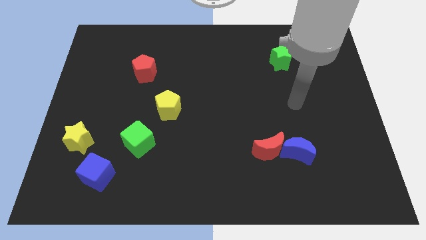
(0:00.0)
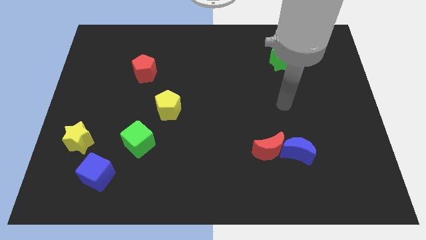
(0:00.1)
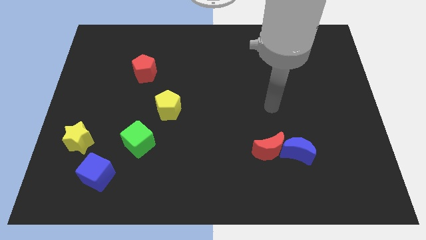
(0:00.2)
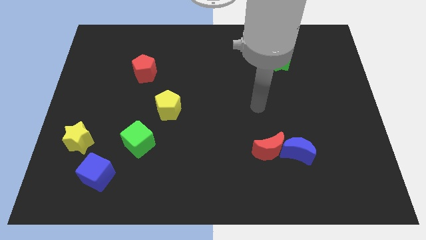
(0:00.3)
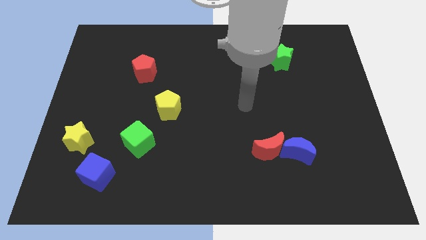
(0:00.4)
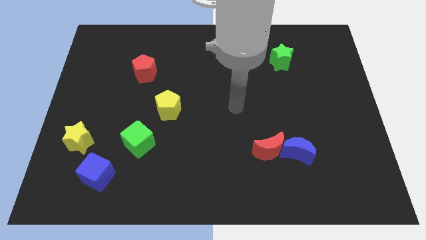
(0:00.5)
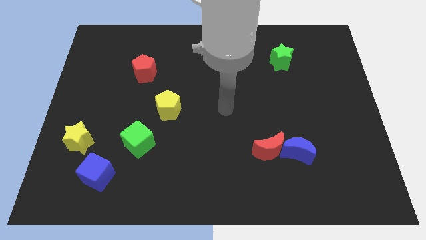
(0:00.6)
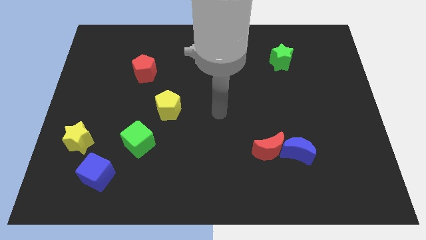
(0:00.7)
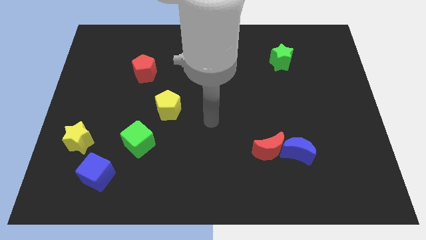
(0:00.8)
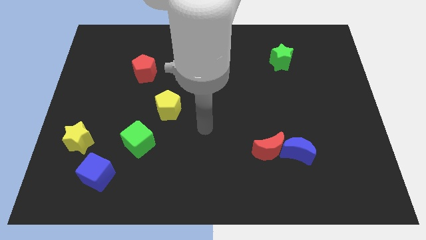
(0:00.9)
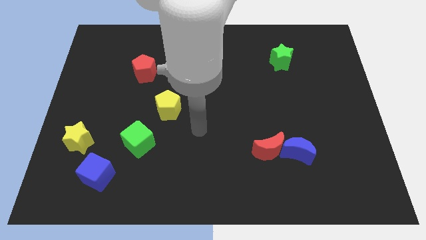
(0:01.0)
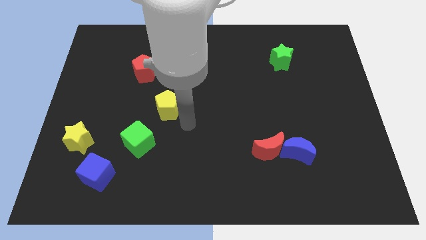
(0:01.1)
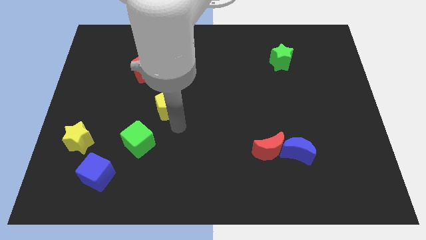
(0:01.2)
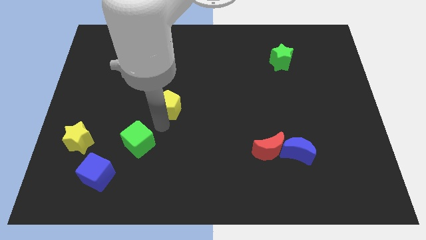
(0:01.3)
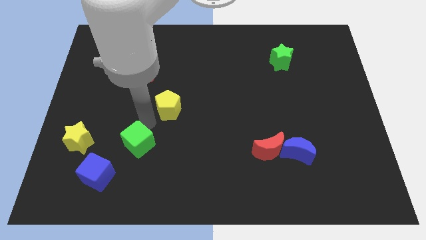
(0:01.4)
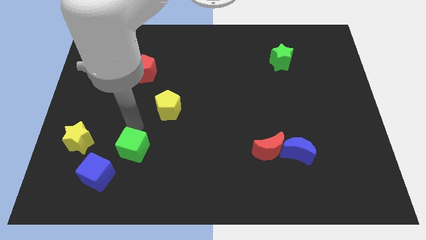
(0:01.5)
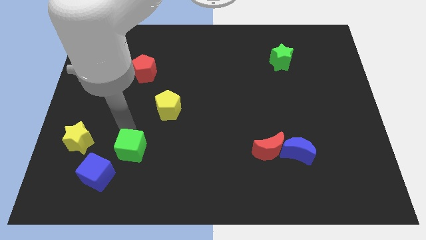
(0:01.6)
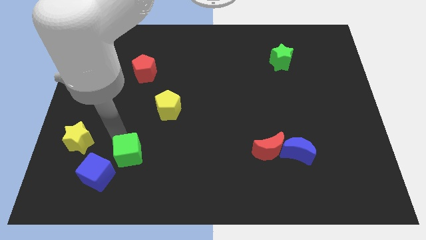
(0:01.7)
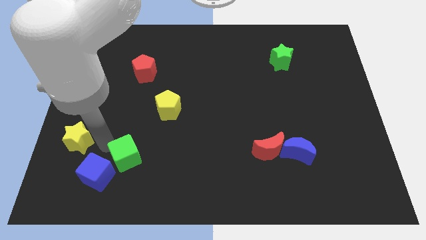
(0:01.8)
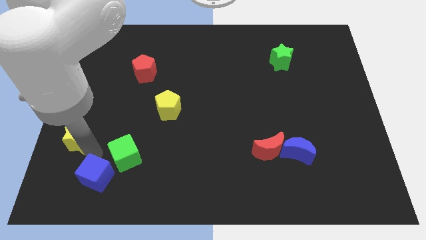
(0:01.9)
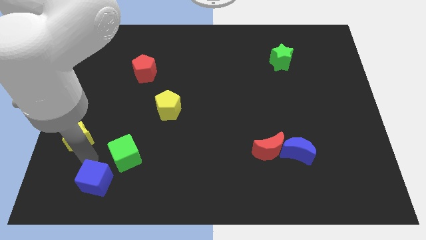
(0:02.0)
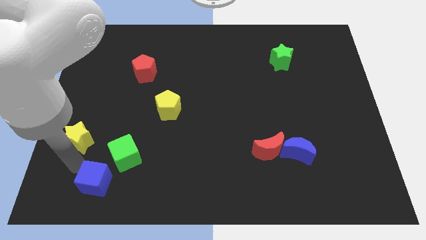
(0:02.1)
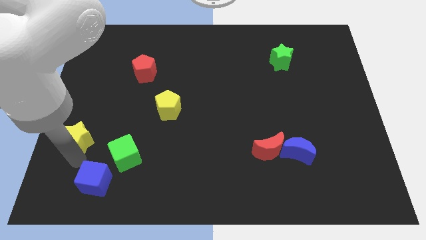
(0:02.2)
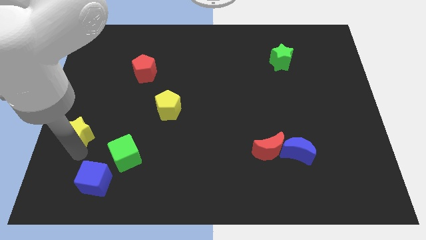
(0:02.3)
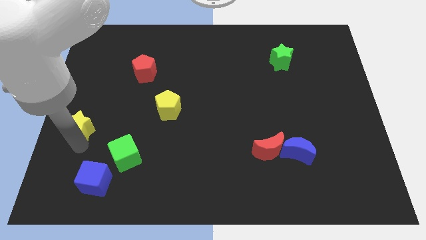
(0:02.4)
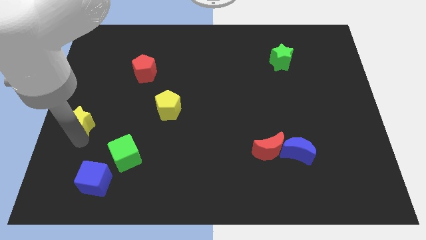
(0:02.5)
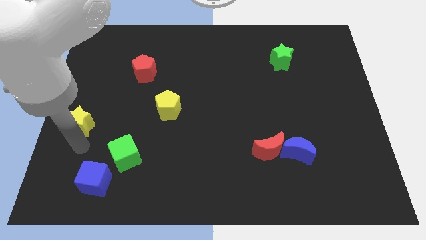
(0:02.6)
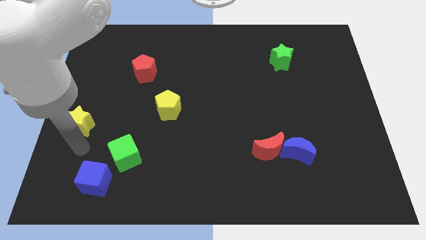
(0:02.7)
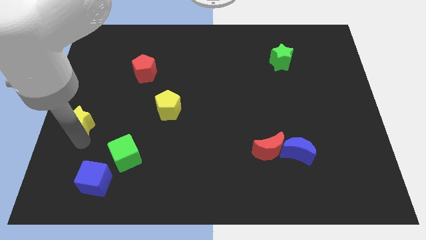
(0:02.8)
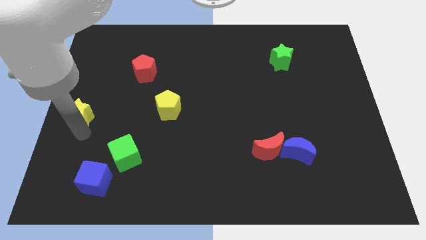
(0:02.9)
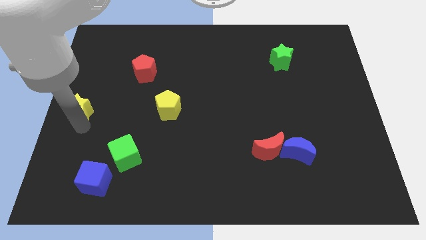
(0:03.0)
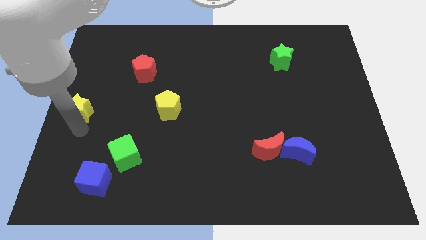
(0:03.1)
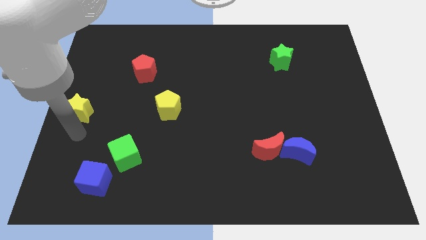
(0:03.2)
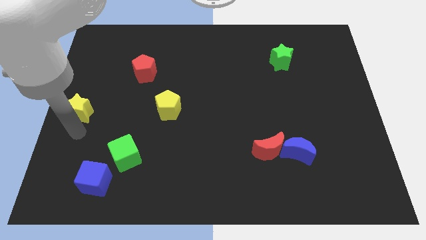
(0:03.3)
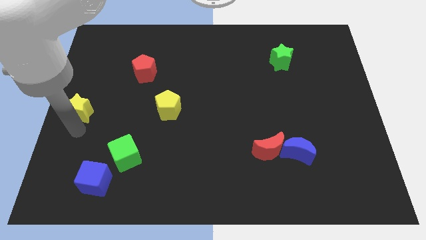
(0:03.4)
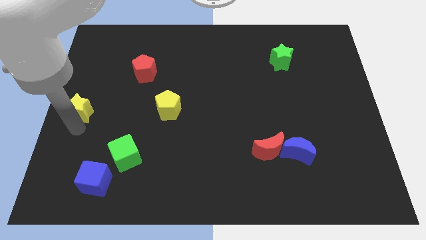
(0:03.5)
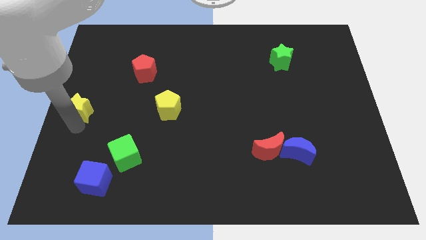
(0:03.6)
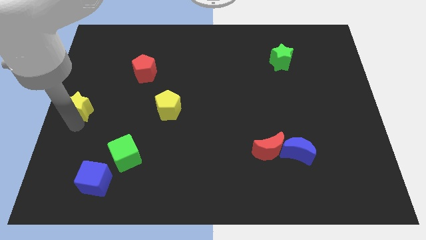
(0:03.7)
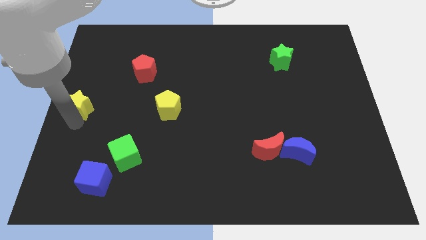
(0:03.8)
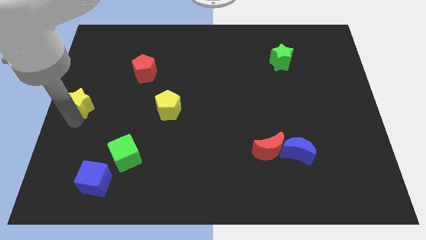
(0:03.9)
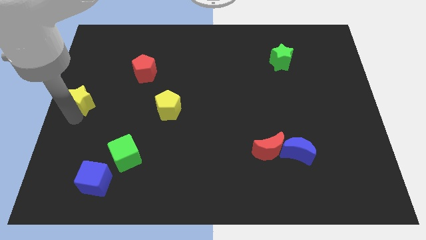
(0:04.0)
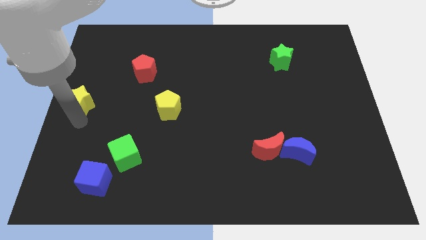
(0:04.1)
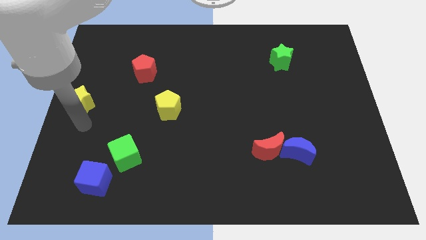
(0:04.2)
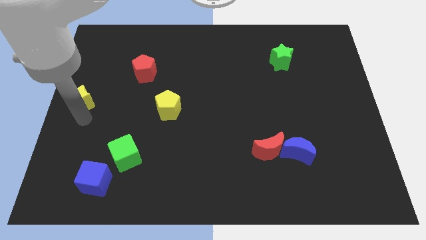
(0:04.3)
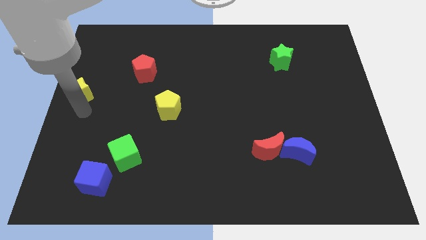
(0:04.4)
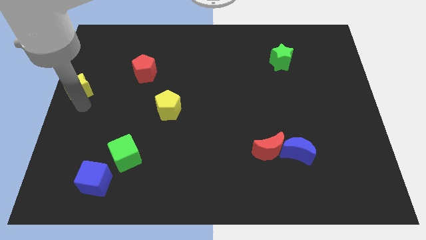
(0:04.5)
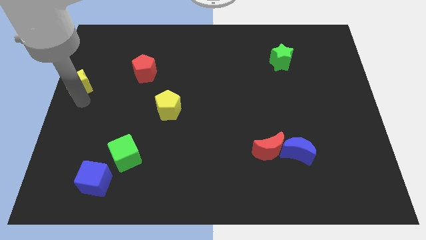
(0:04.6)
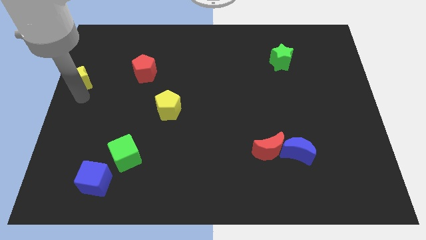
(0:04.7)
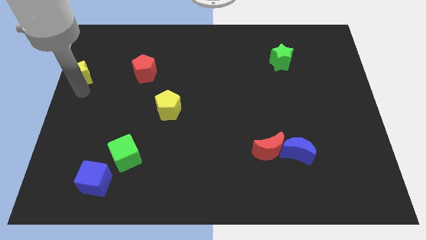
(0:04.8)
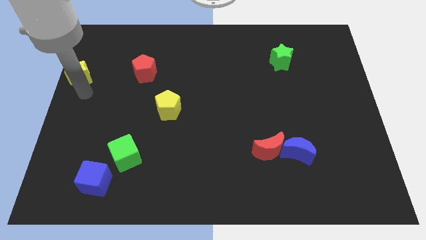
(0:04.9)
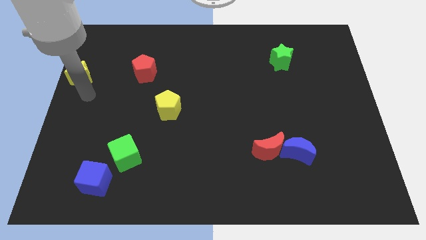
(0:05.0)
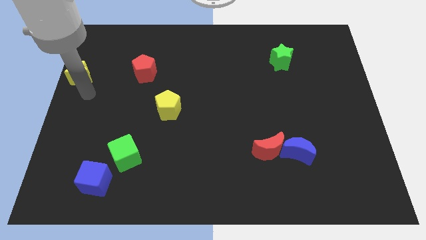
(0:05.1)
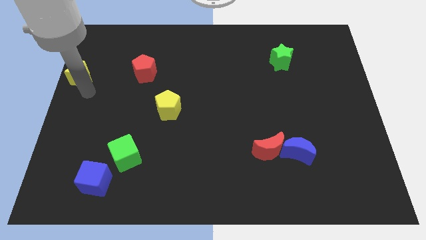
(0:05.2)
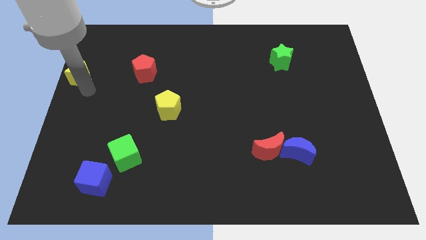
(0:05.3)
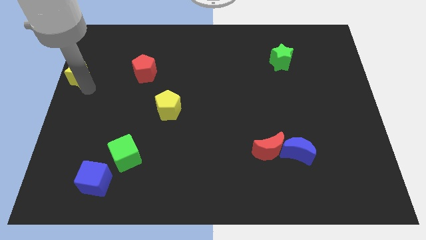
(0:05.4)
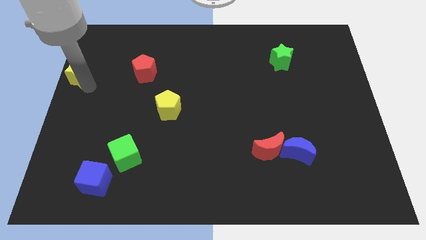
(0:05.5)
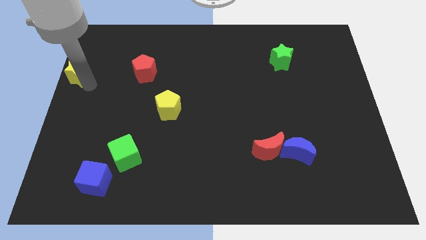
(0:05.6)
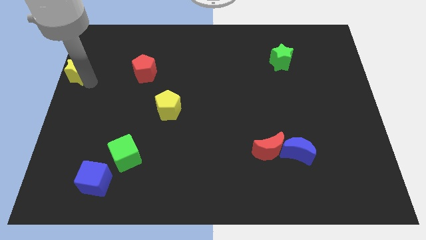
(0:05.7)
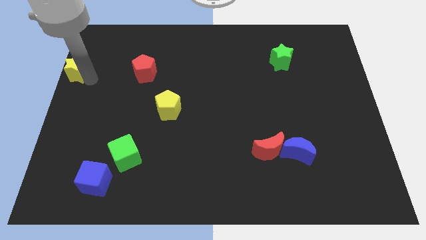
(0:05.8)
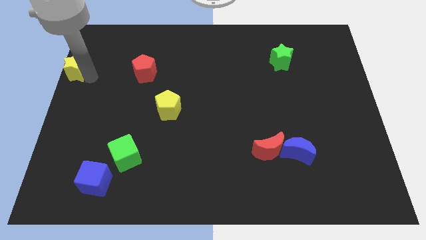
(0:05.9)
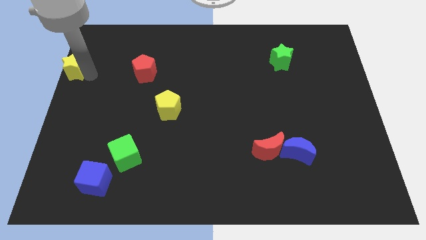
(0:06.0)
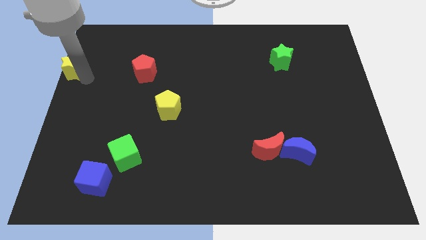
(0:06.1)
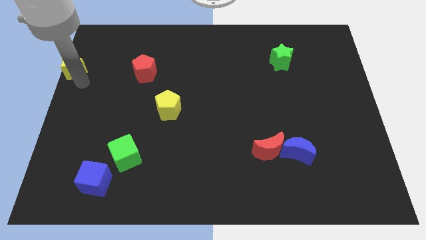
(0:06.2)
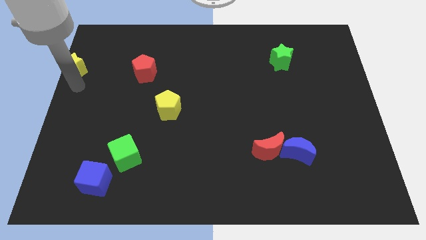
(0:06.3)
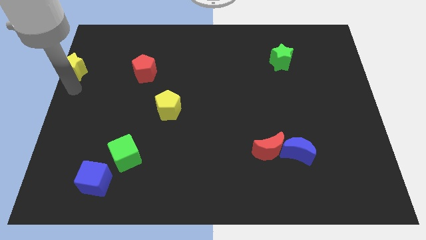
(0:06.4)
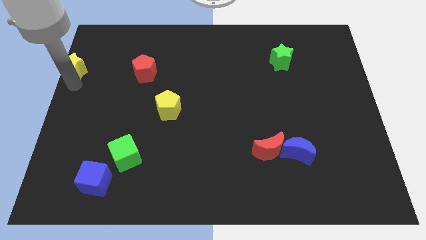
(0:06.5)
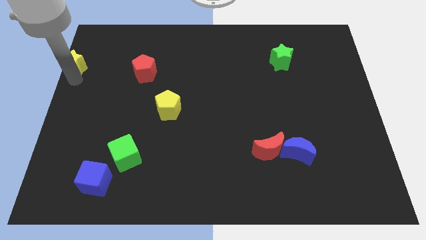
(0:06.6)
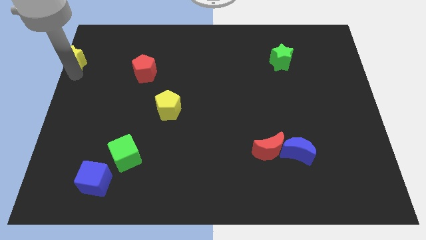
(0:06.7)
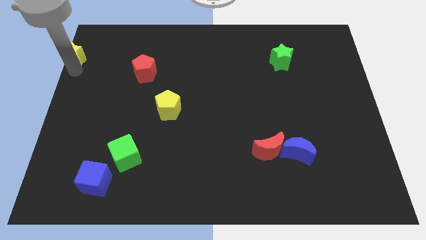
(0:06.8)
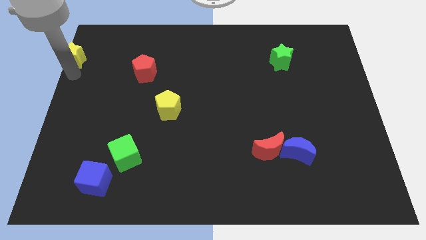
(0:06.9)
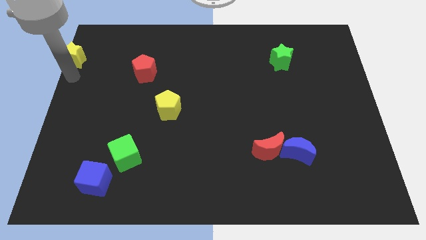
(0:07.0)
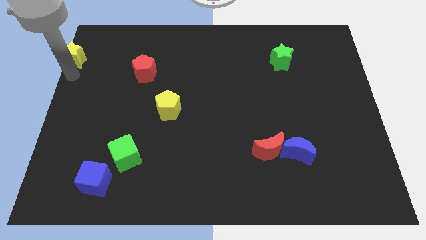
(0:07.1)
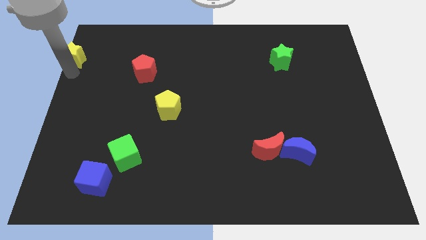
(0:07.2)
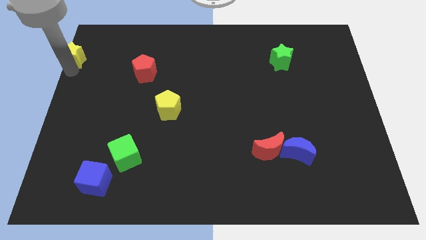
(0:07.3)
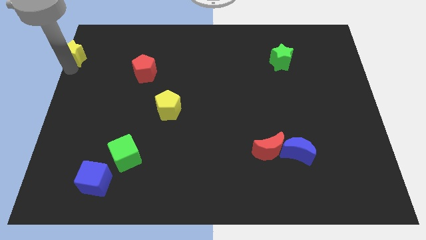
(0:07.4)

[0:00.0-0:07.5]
push the yellow star to the top left corner
